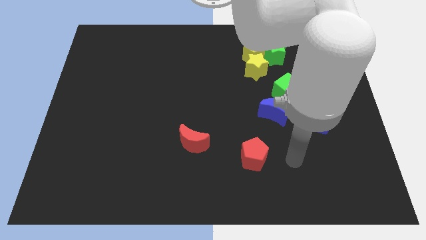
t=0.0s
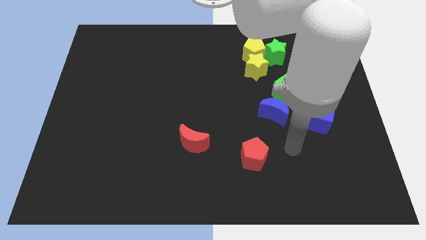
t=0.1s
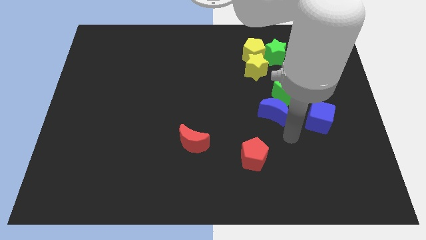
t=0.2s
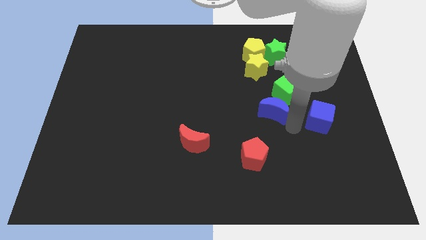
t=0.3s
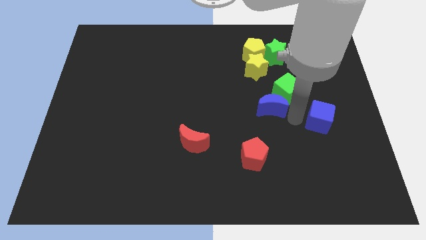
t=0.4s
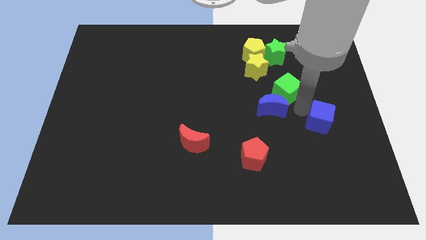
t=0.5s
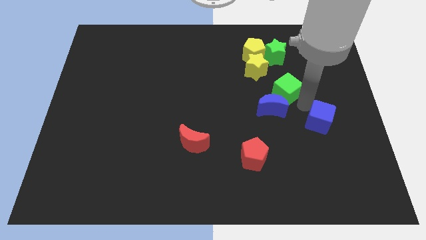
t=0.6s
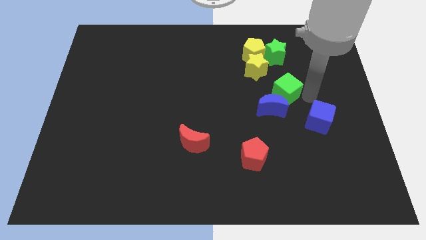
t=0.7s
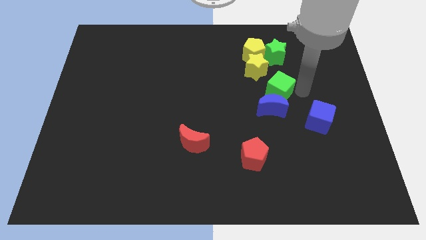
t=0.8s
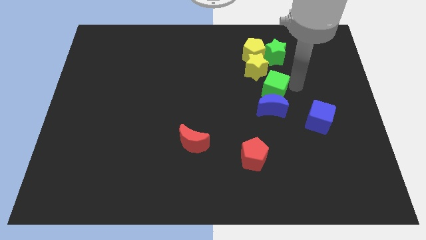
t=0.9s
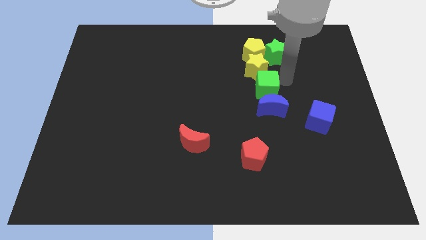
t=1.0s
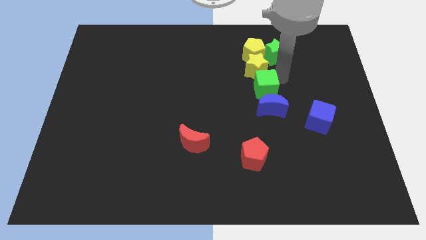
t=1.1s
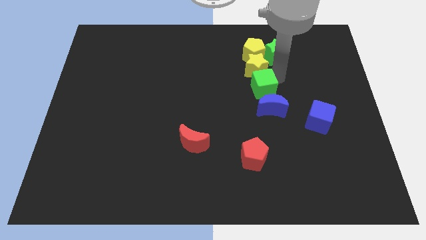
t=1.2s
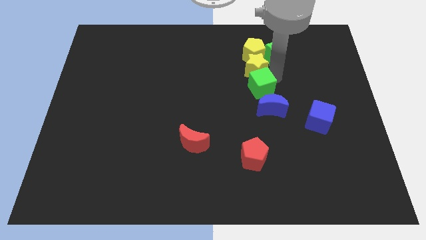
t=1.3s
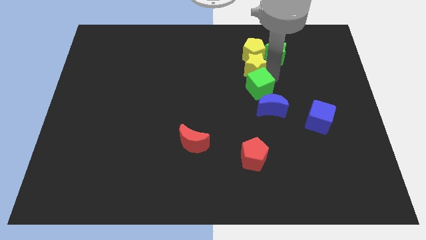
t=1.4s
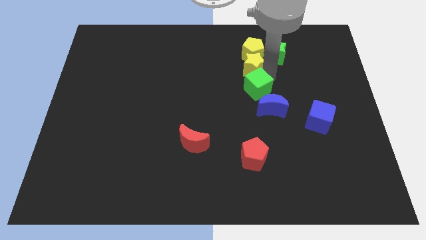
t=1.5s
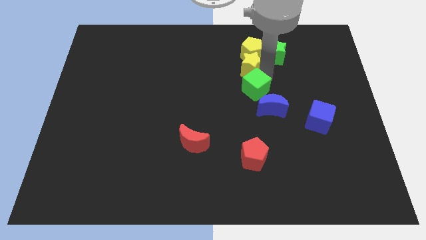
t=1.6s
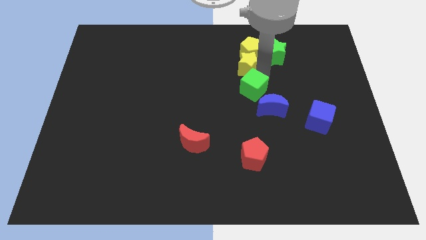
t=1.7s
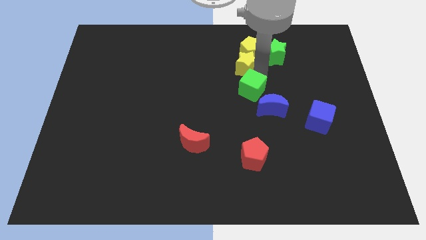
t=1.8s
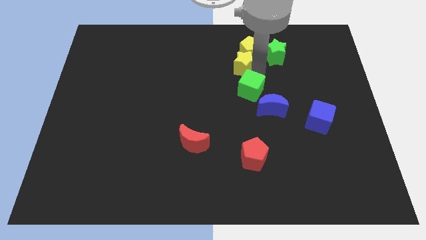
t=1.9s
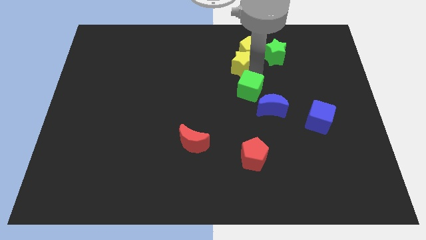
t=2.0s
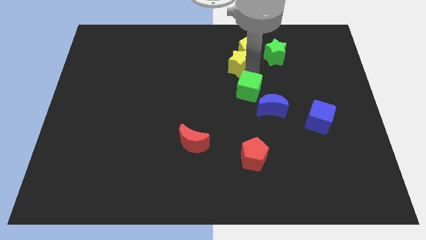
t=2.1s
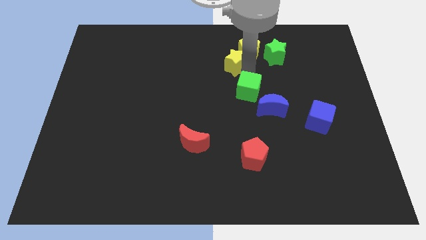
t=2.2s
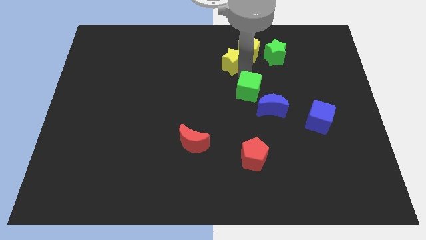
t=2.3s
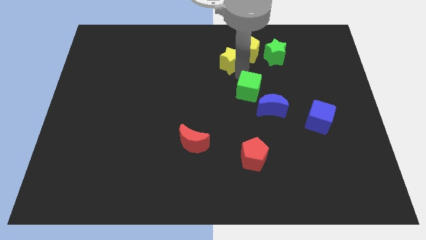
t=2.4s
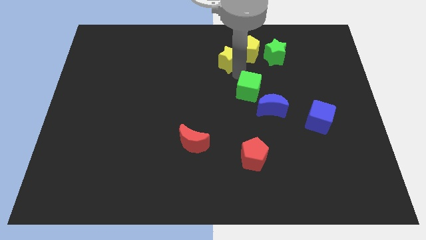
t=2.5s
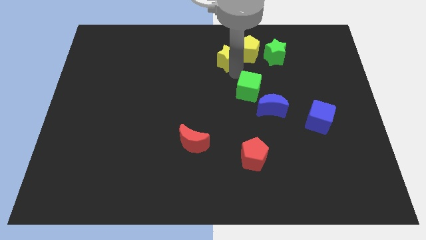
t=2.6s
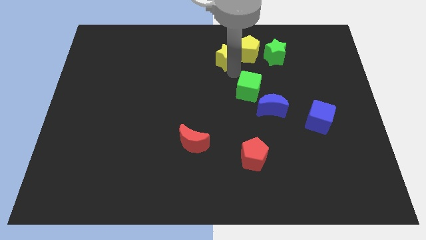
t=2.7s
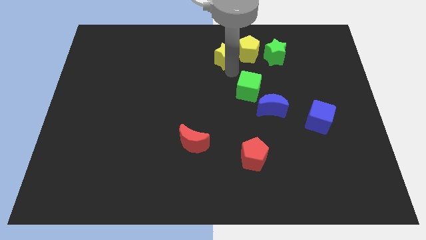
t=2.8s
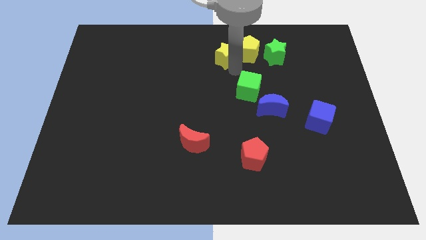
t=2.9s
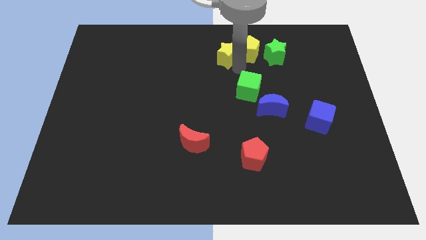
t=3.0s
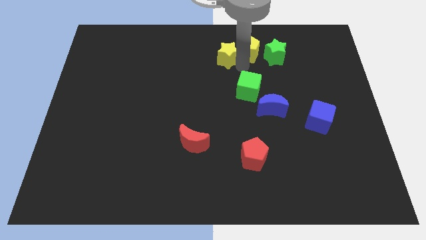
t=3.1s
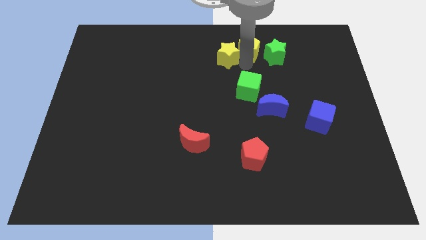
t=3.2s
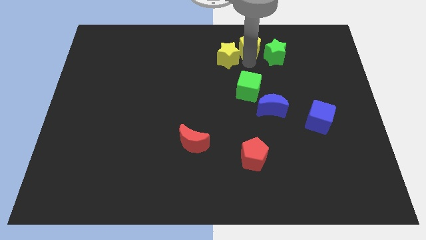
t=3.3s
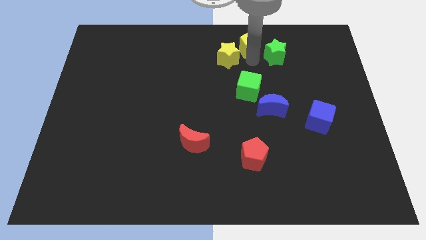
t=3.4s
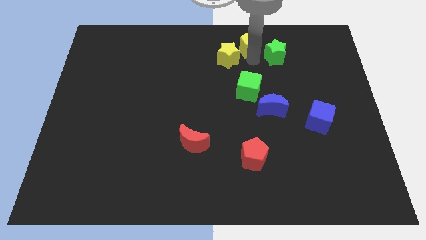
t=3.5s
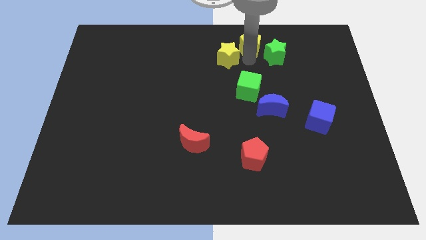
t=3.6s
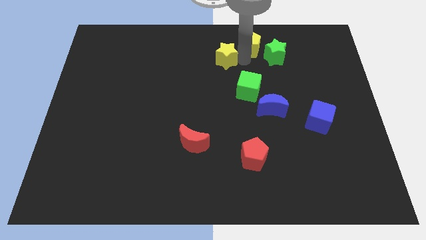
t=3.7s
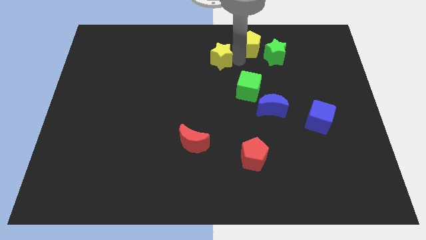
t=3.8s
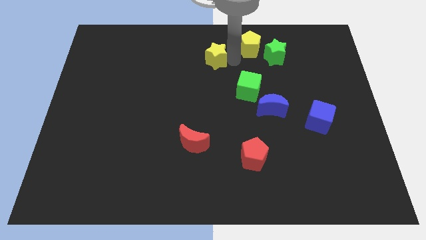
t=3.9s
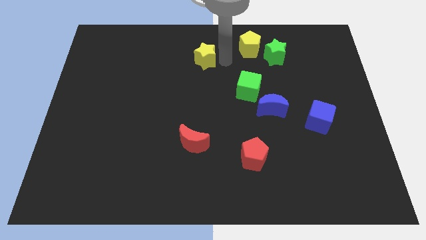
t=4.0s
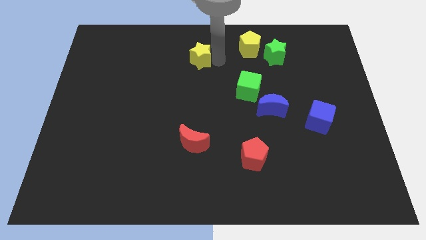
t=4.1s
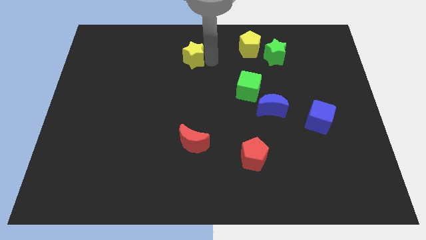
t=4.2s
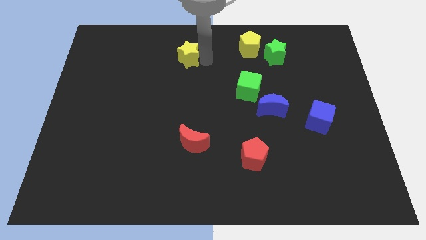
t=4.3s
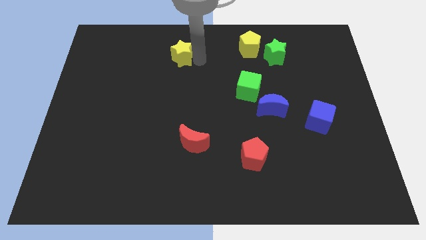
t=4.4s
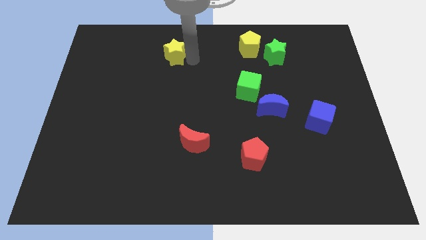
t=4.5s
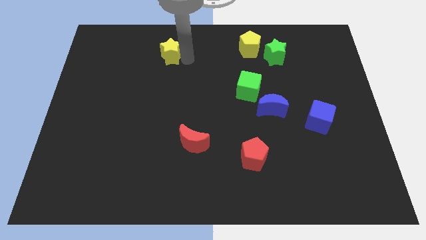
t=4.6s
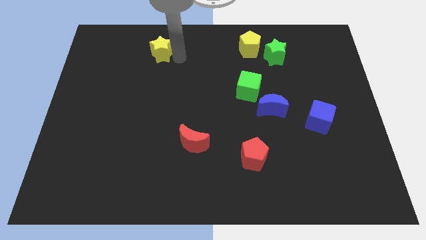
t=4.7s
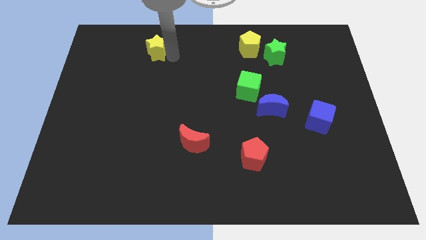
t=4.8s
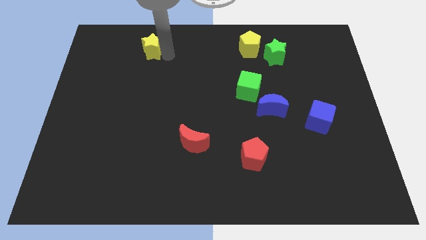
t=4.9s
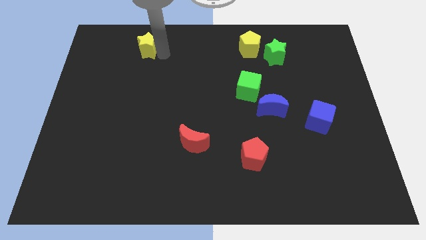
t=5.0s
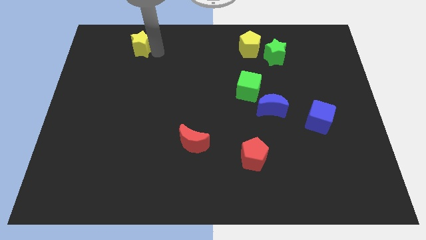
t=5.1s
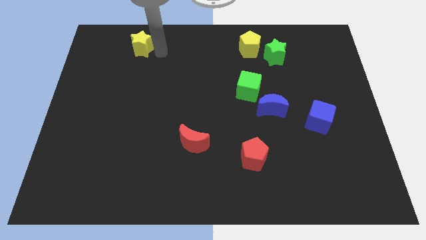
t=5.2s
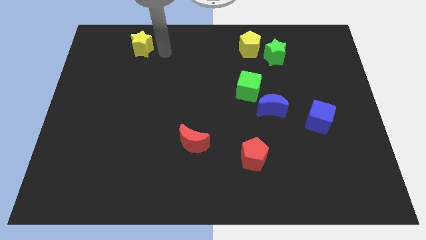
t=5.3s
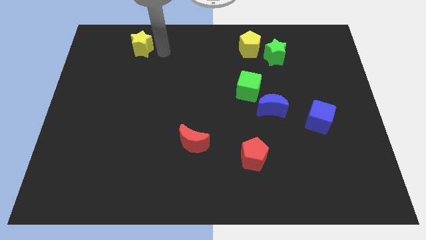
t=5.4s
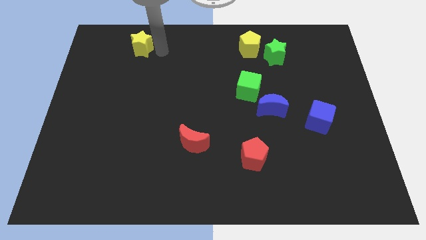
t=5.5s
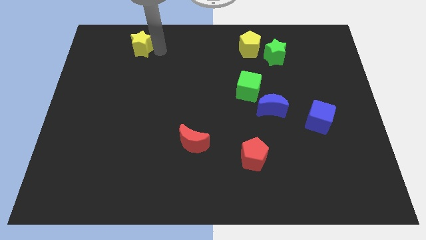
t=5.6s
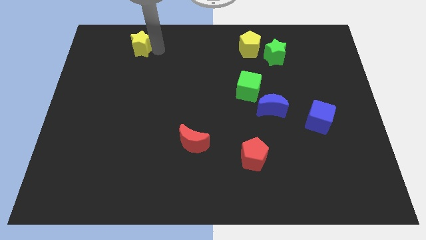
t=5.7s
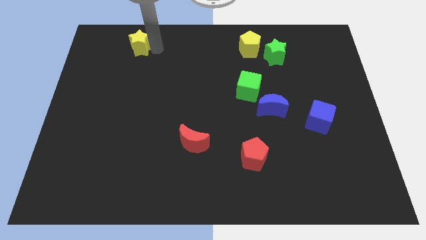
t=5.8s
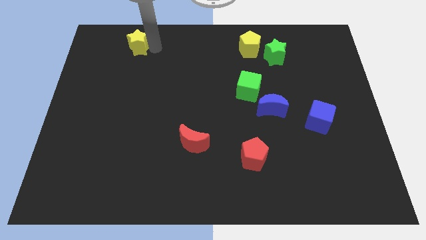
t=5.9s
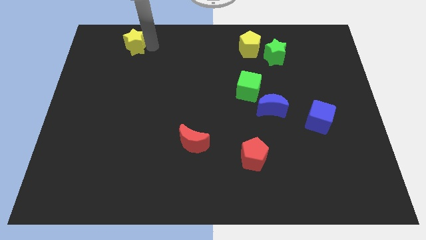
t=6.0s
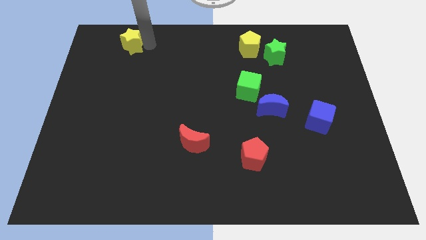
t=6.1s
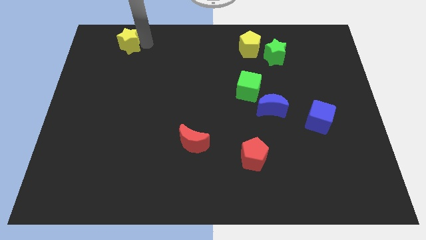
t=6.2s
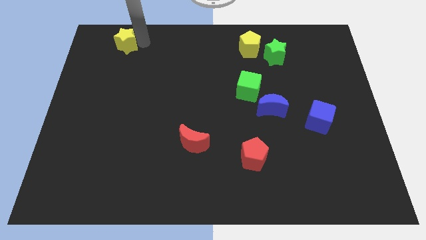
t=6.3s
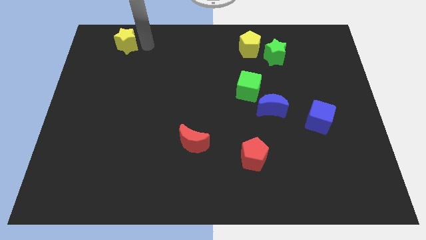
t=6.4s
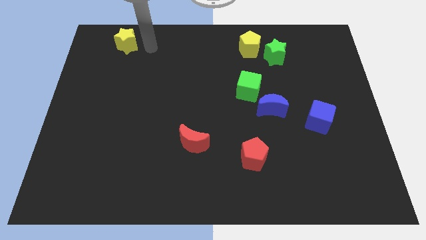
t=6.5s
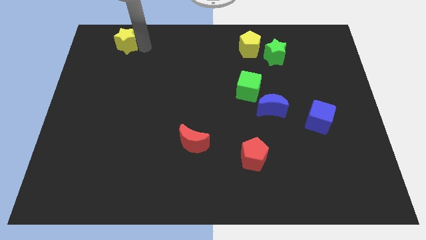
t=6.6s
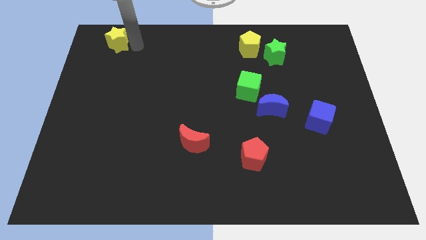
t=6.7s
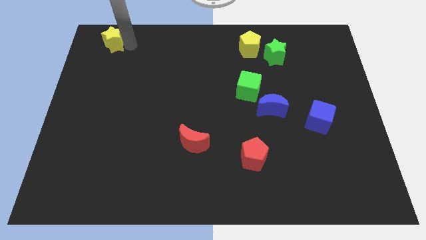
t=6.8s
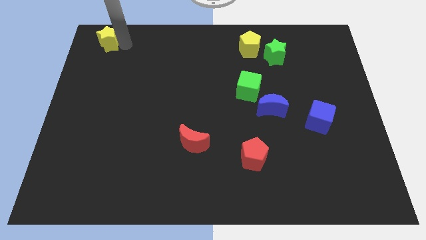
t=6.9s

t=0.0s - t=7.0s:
put the yellow star to the top left of the board
